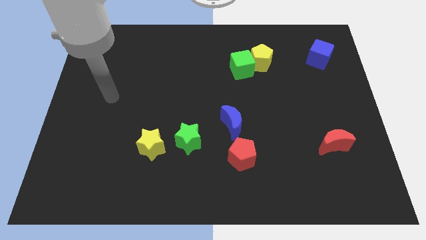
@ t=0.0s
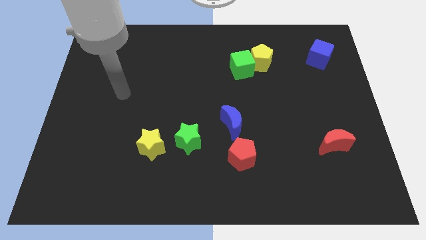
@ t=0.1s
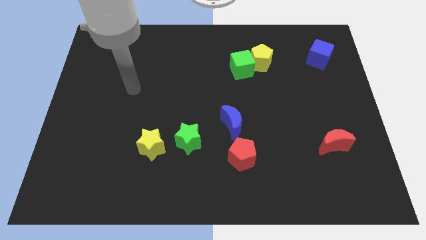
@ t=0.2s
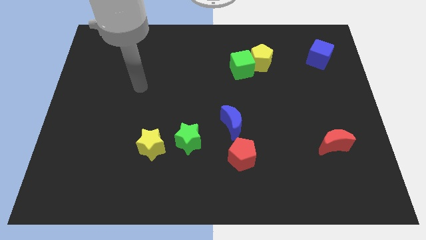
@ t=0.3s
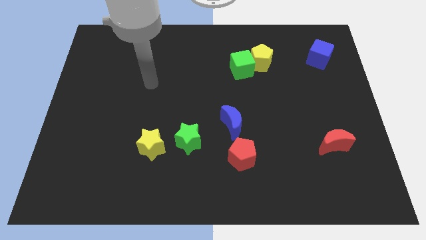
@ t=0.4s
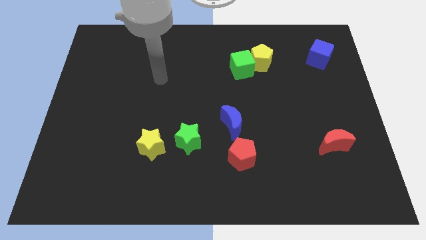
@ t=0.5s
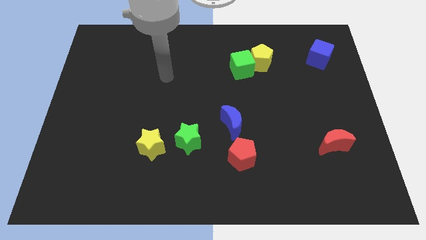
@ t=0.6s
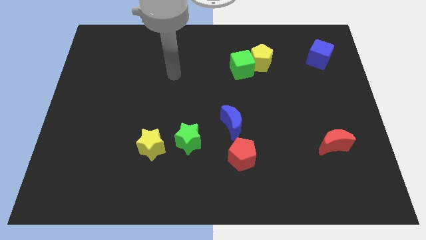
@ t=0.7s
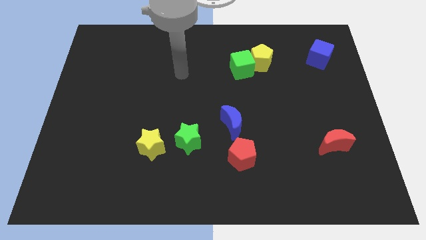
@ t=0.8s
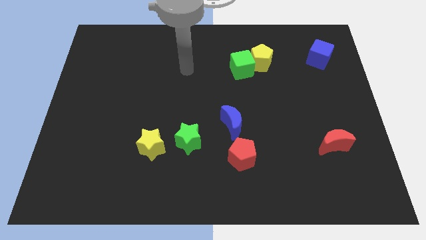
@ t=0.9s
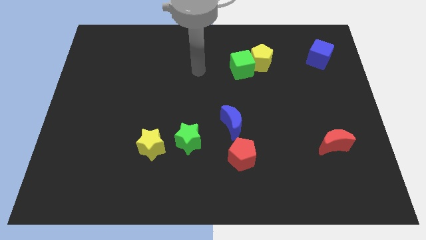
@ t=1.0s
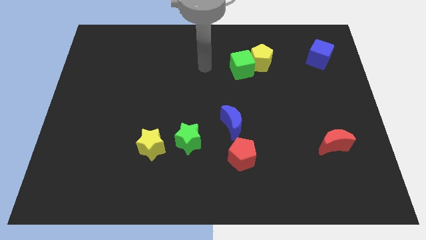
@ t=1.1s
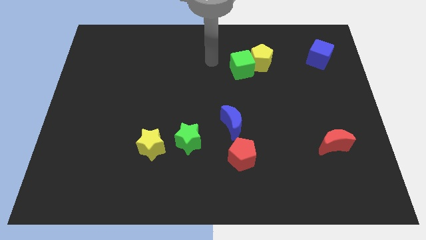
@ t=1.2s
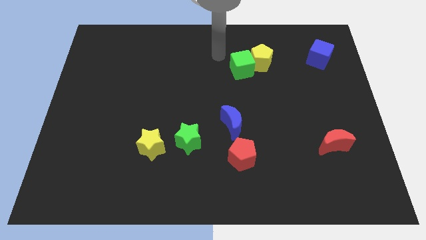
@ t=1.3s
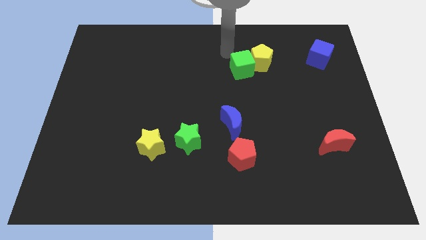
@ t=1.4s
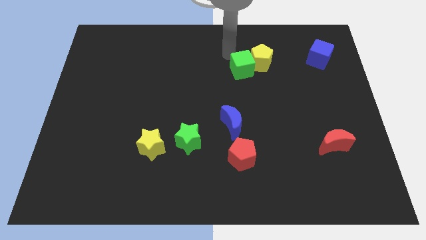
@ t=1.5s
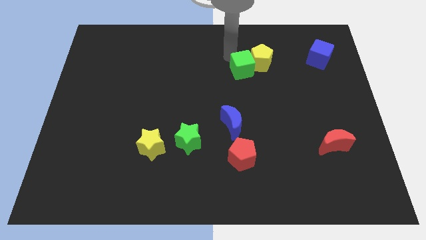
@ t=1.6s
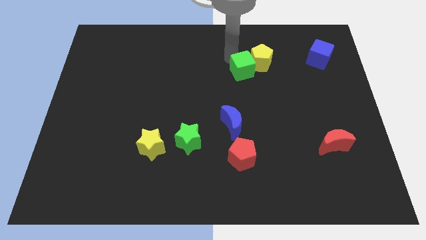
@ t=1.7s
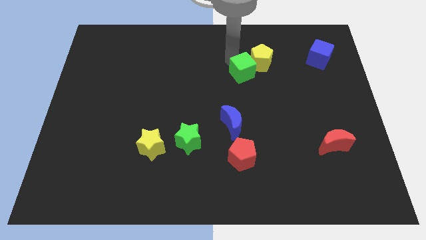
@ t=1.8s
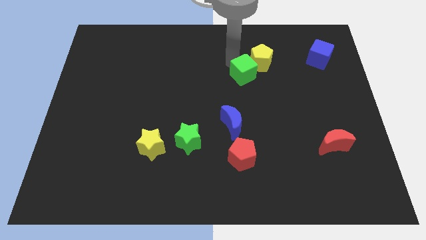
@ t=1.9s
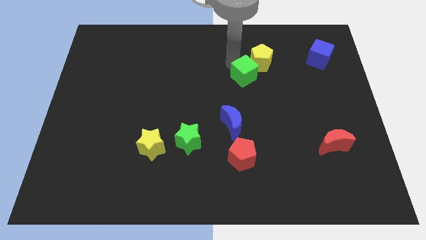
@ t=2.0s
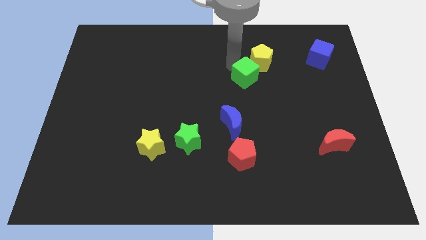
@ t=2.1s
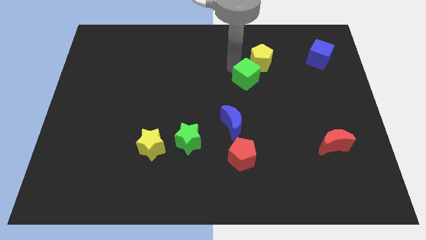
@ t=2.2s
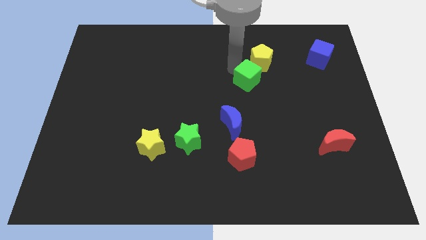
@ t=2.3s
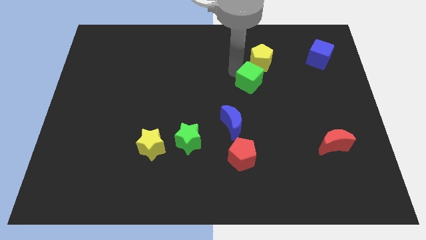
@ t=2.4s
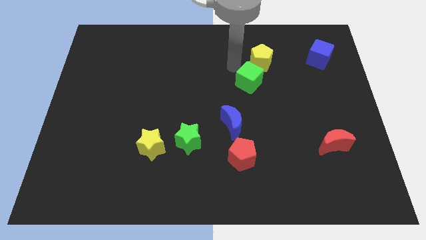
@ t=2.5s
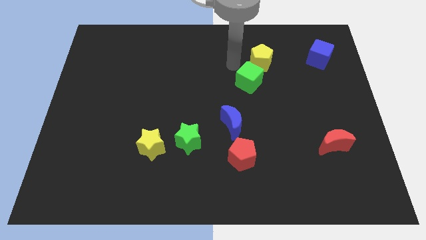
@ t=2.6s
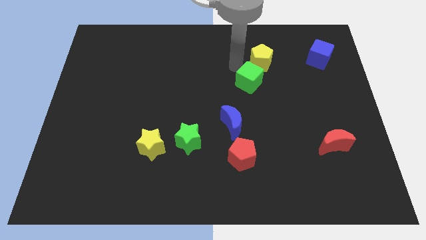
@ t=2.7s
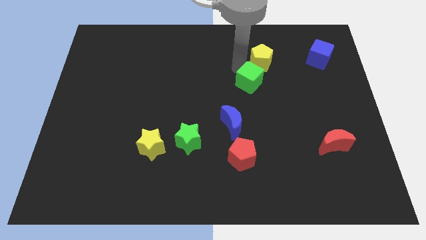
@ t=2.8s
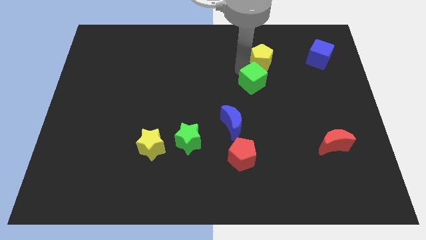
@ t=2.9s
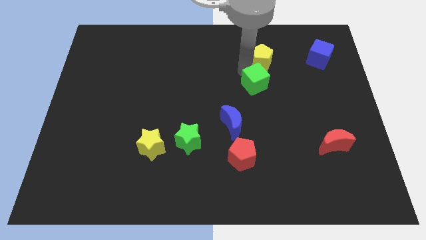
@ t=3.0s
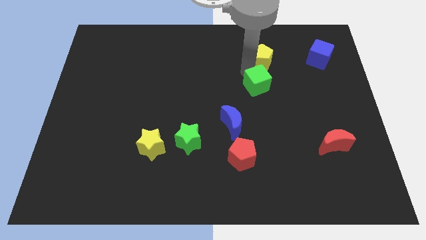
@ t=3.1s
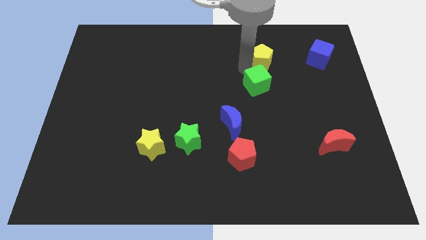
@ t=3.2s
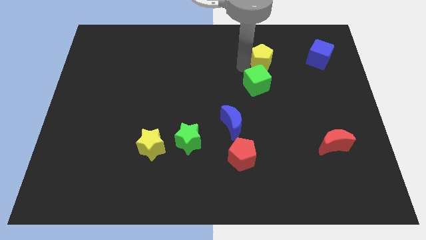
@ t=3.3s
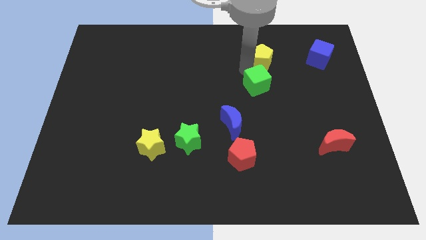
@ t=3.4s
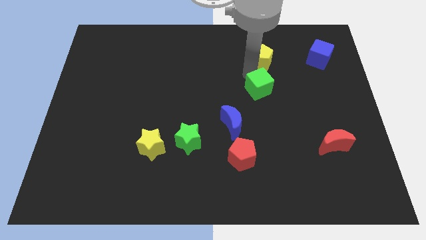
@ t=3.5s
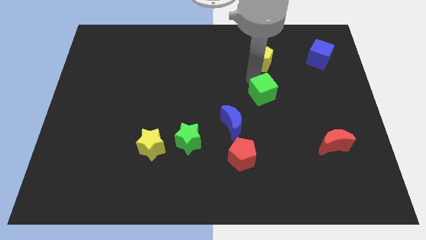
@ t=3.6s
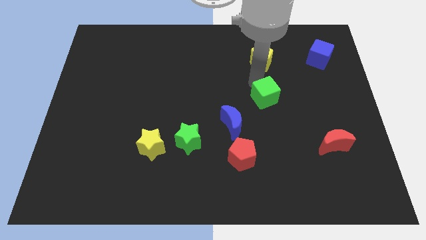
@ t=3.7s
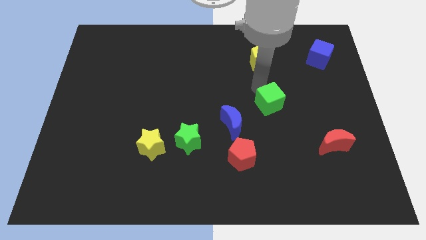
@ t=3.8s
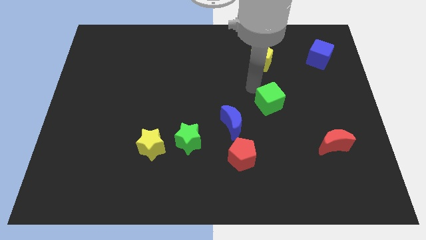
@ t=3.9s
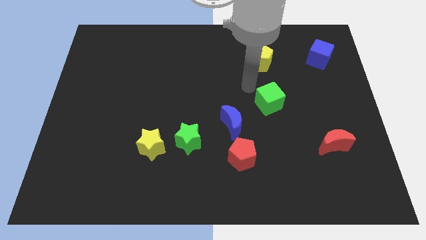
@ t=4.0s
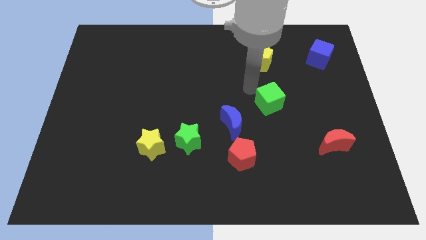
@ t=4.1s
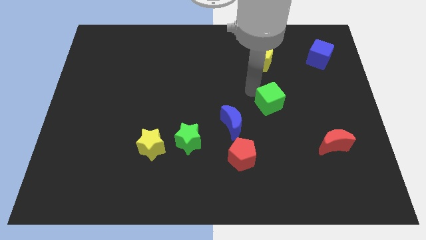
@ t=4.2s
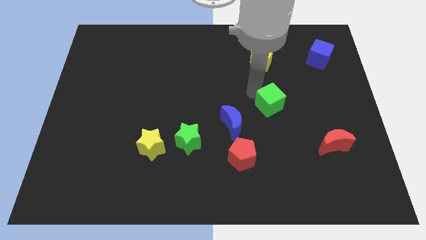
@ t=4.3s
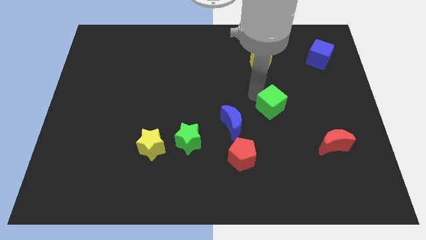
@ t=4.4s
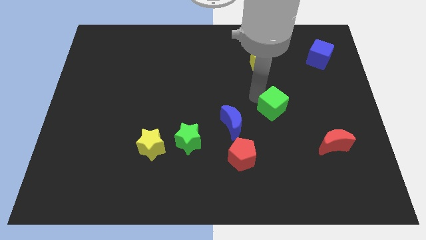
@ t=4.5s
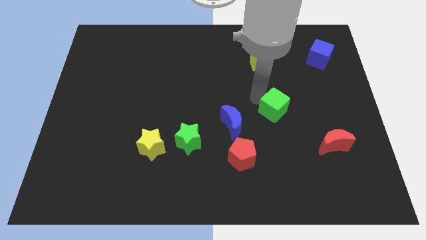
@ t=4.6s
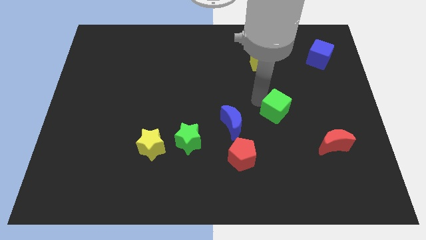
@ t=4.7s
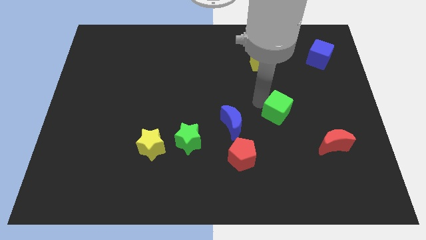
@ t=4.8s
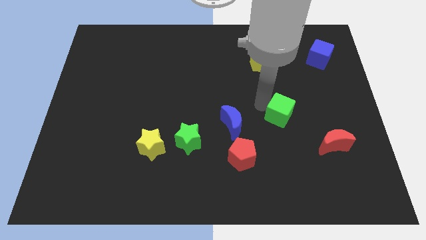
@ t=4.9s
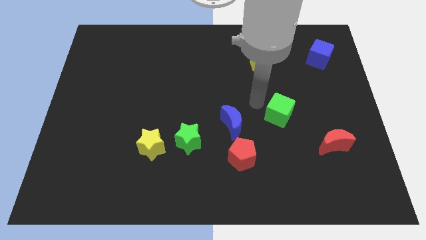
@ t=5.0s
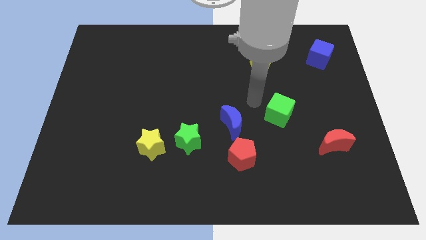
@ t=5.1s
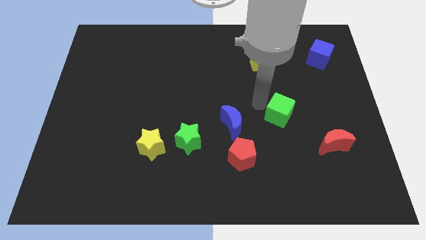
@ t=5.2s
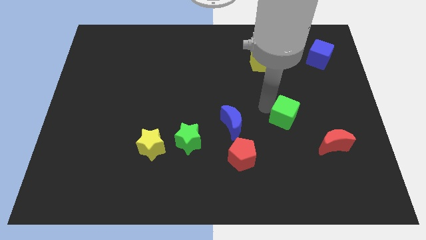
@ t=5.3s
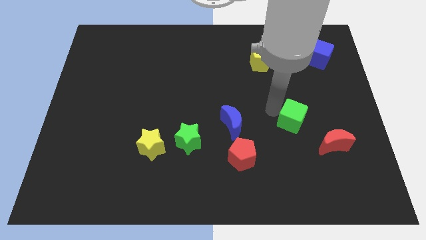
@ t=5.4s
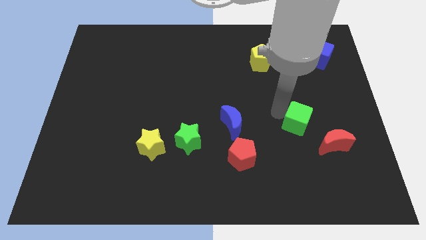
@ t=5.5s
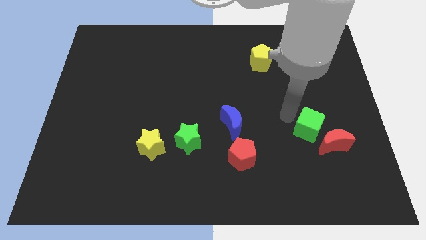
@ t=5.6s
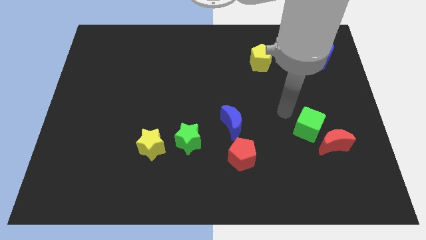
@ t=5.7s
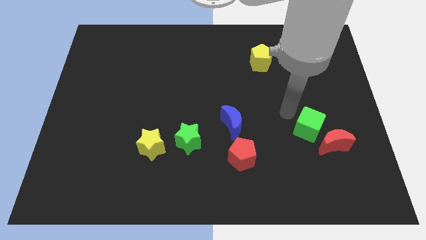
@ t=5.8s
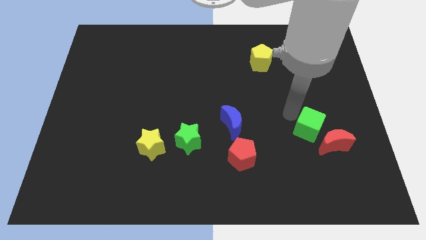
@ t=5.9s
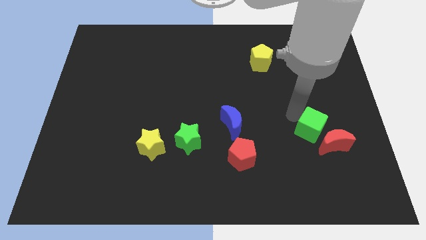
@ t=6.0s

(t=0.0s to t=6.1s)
put the green cube next to the red moon

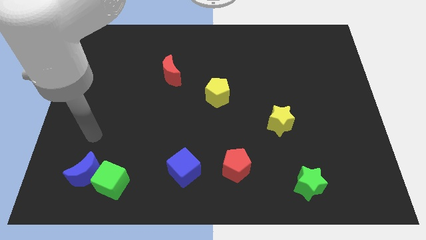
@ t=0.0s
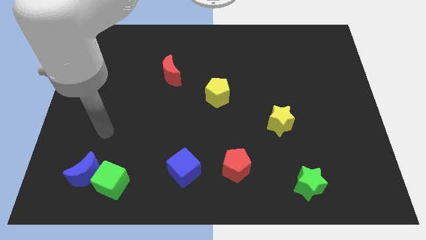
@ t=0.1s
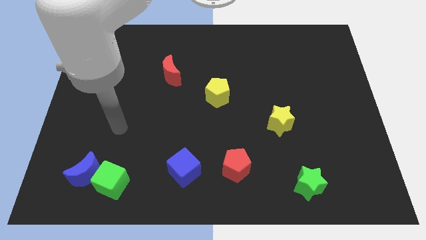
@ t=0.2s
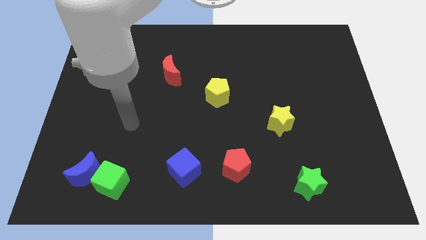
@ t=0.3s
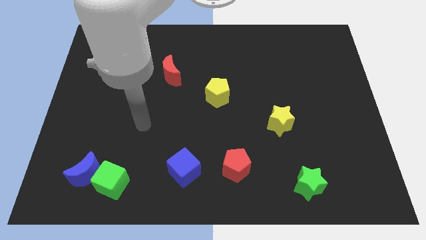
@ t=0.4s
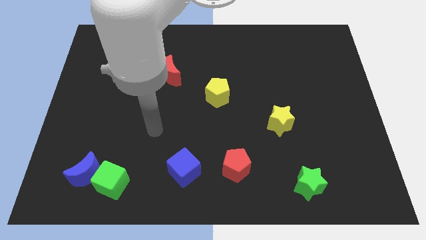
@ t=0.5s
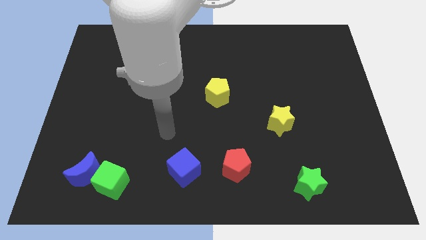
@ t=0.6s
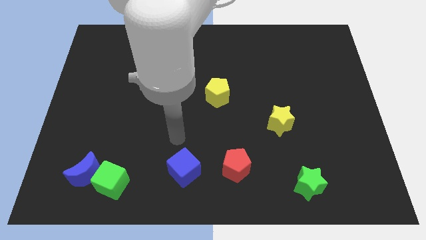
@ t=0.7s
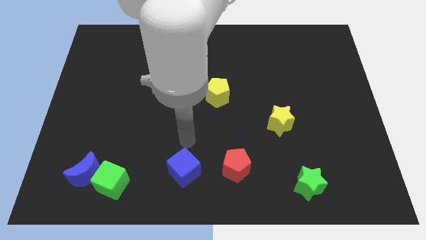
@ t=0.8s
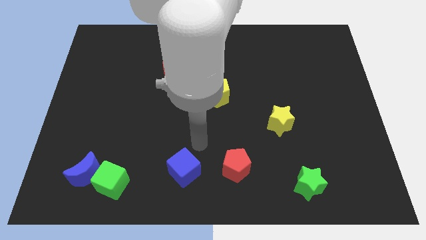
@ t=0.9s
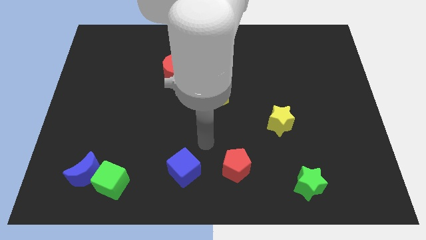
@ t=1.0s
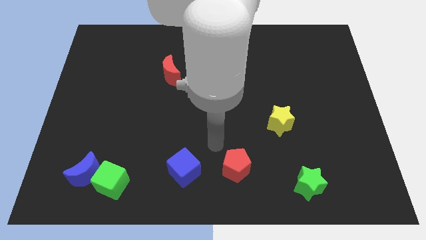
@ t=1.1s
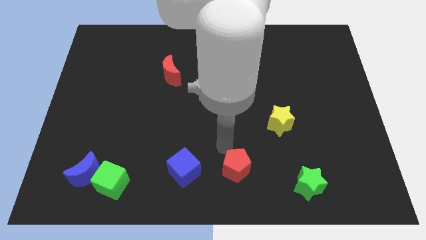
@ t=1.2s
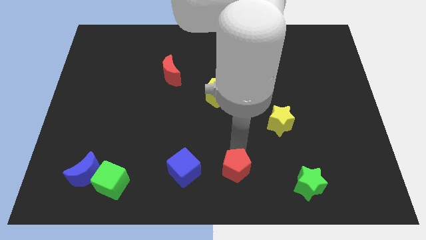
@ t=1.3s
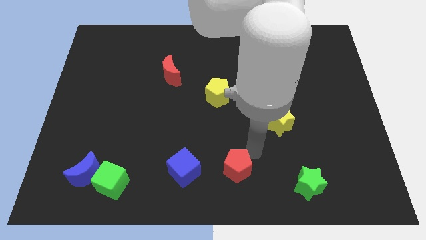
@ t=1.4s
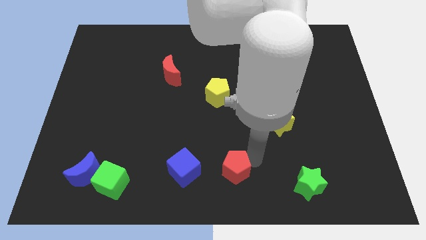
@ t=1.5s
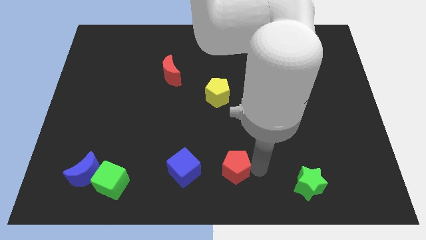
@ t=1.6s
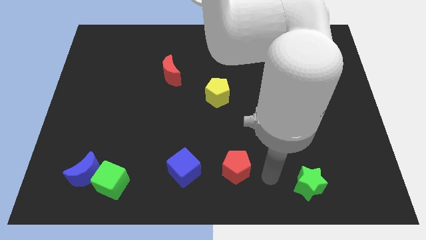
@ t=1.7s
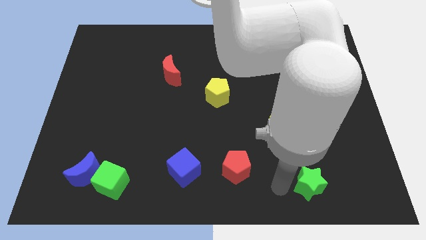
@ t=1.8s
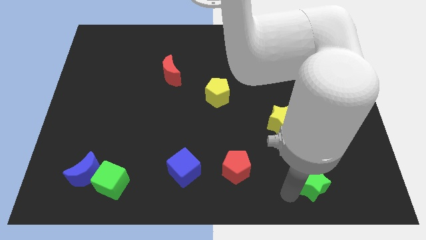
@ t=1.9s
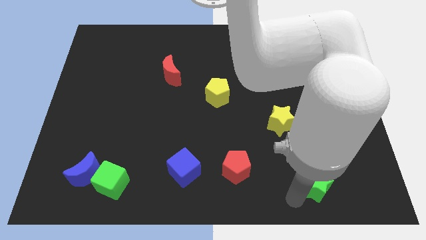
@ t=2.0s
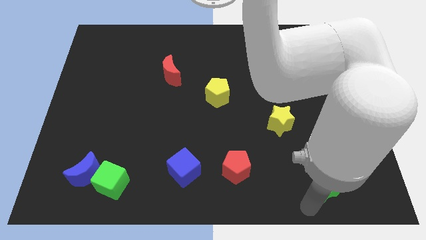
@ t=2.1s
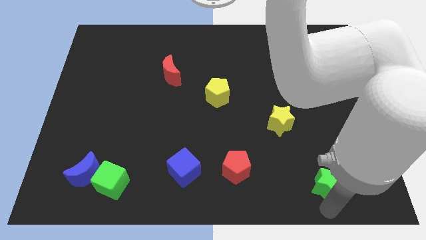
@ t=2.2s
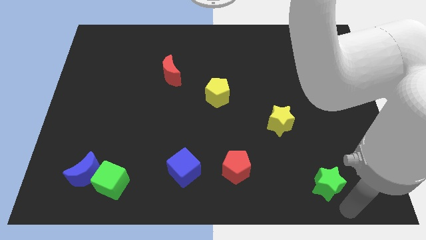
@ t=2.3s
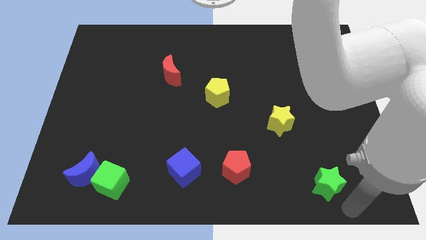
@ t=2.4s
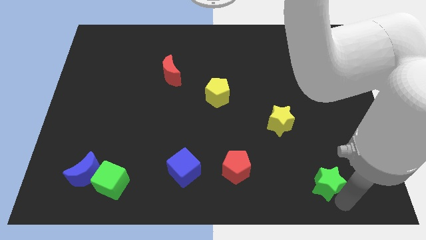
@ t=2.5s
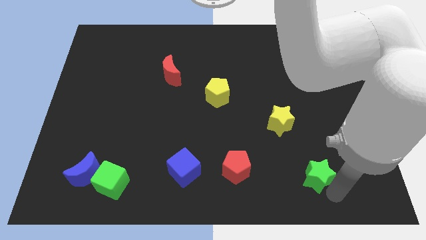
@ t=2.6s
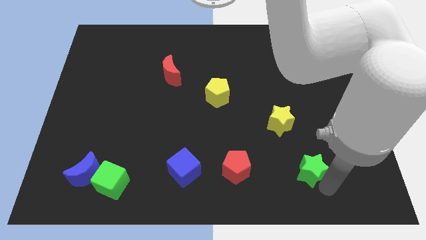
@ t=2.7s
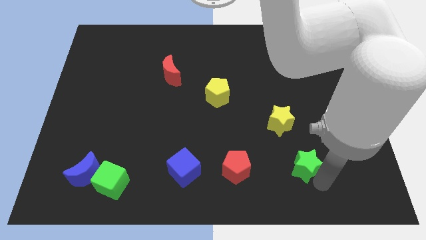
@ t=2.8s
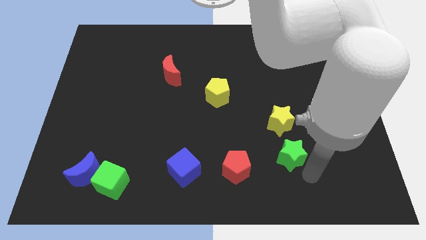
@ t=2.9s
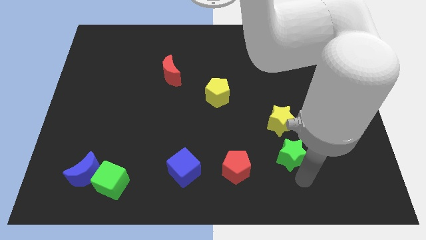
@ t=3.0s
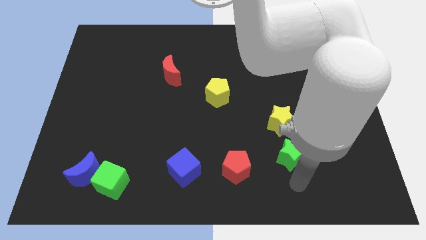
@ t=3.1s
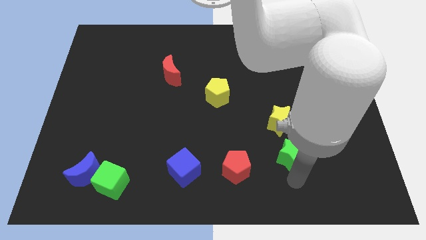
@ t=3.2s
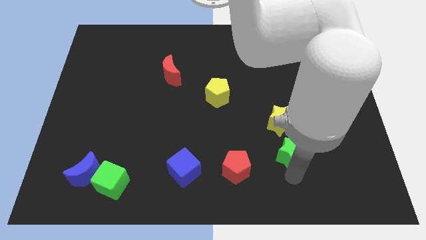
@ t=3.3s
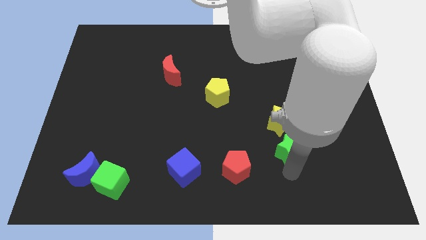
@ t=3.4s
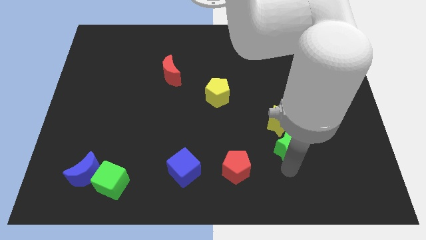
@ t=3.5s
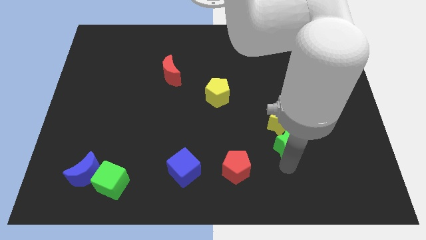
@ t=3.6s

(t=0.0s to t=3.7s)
put the green star towards the yellow star
